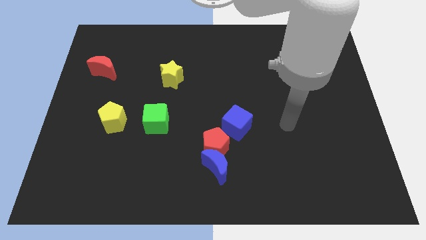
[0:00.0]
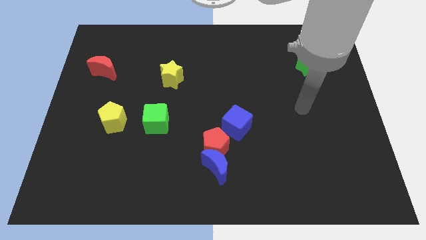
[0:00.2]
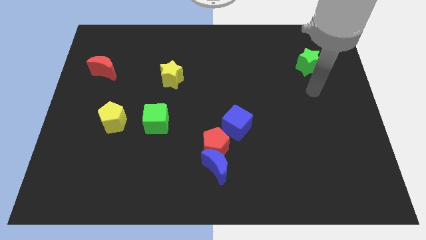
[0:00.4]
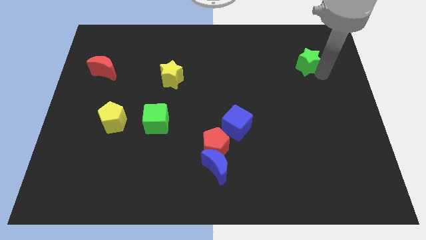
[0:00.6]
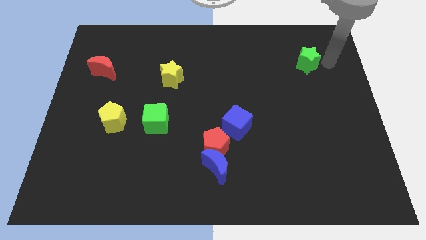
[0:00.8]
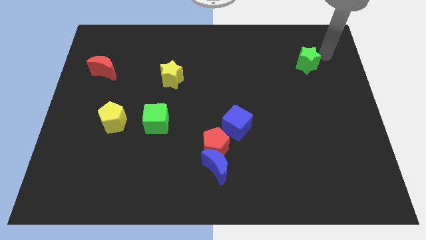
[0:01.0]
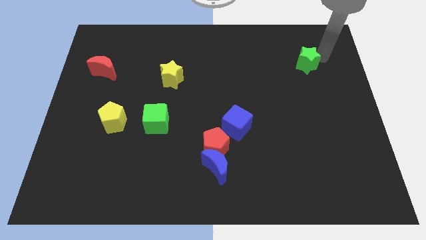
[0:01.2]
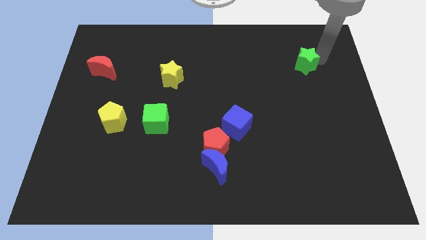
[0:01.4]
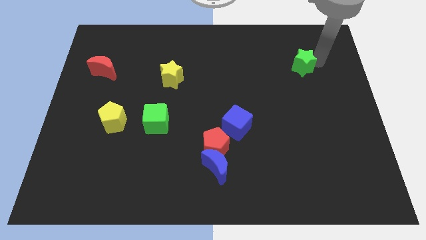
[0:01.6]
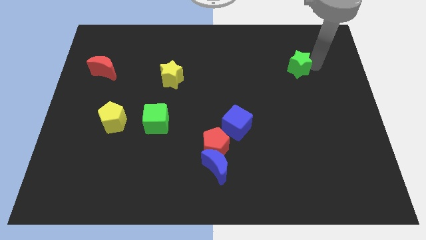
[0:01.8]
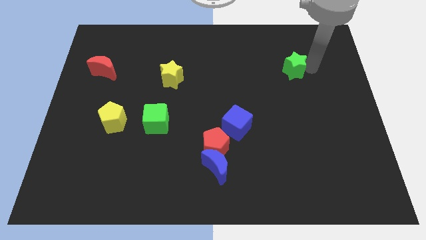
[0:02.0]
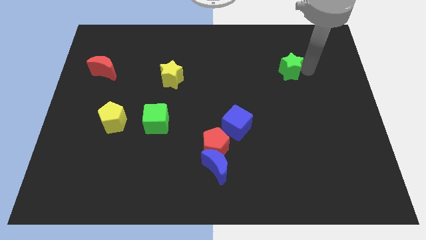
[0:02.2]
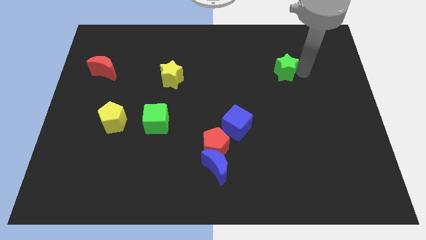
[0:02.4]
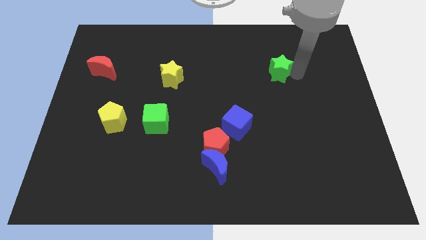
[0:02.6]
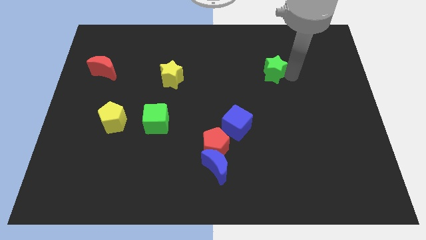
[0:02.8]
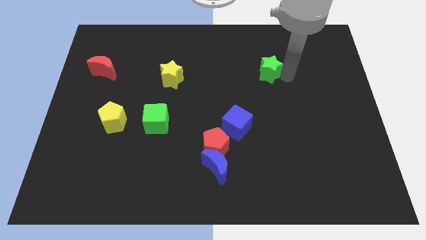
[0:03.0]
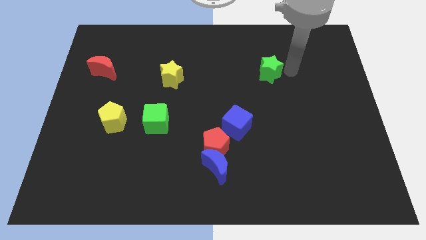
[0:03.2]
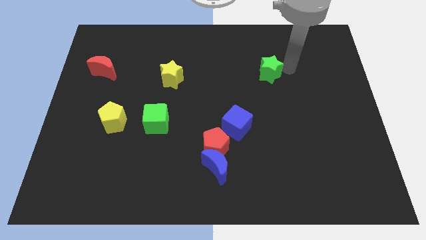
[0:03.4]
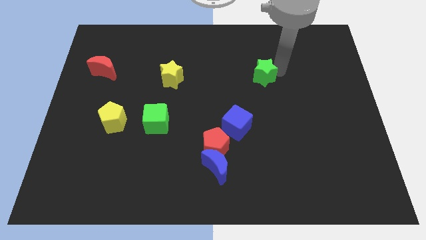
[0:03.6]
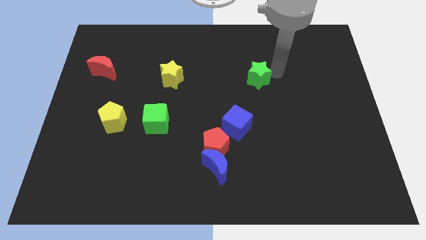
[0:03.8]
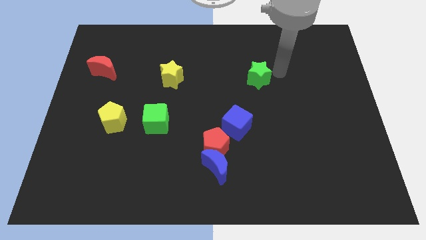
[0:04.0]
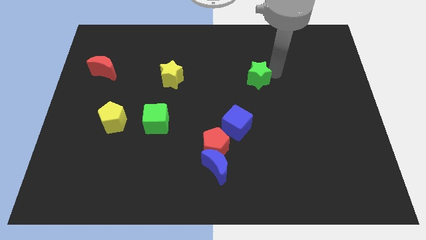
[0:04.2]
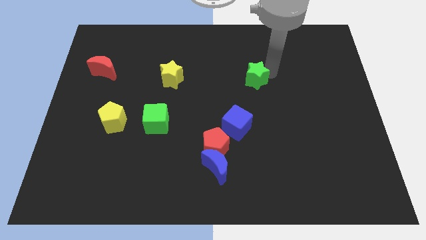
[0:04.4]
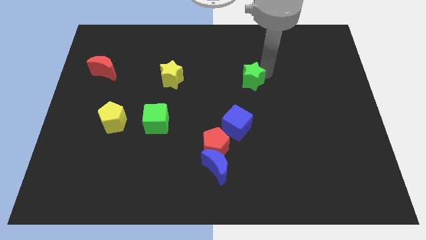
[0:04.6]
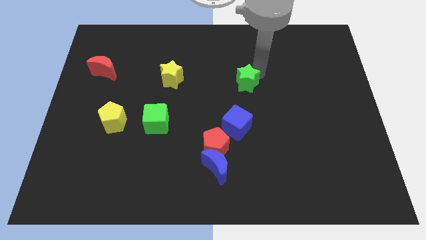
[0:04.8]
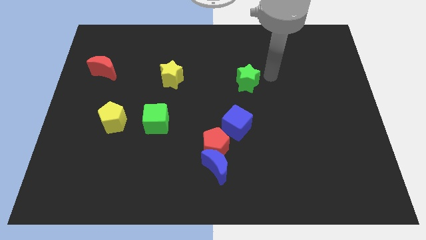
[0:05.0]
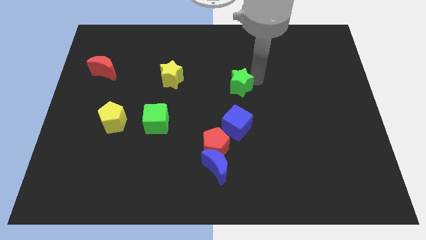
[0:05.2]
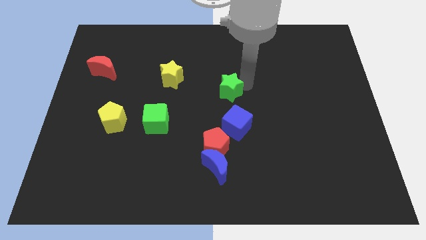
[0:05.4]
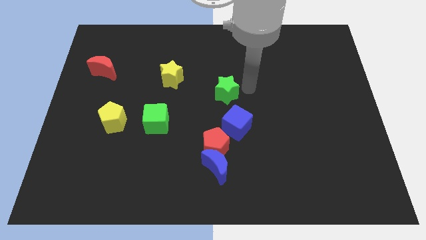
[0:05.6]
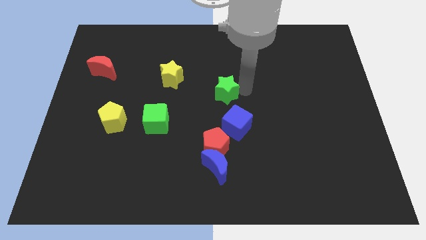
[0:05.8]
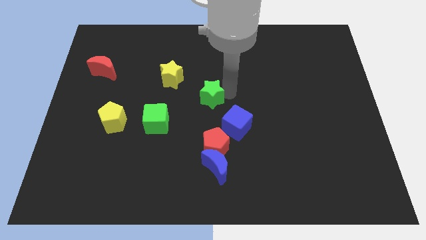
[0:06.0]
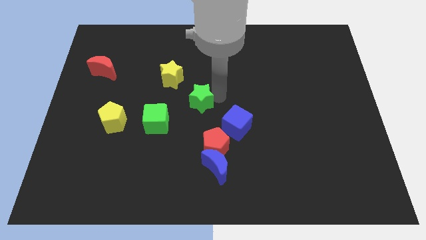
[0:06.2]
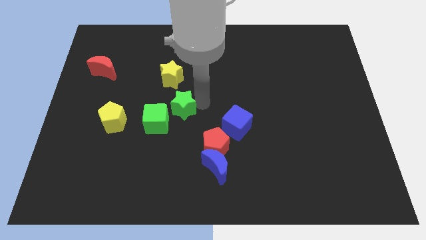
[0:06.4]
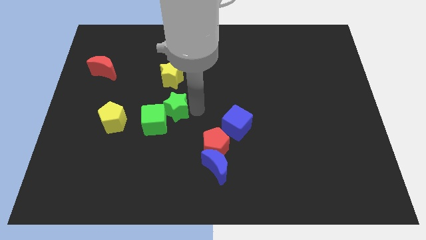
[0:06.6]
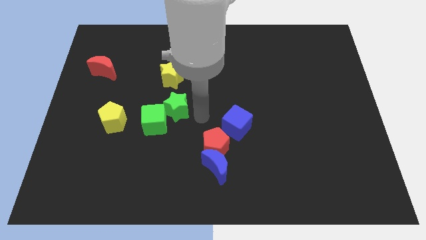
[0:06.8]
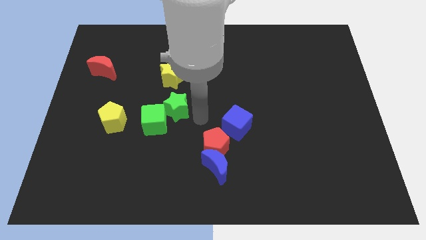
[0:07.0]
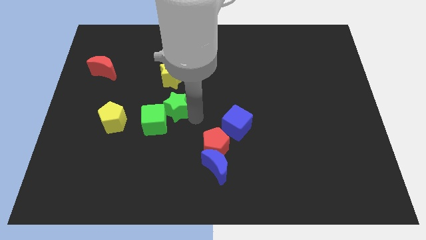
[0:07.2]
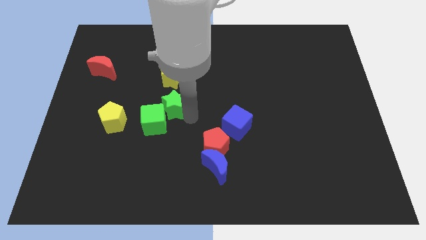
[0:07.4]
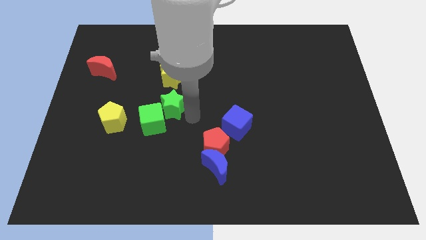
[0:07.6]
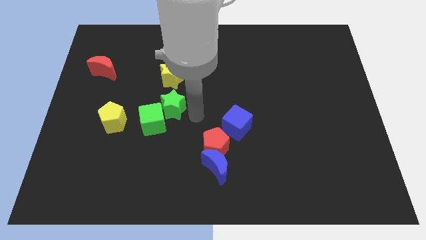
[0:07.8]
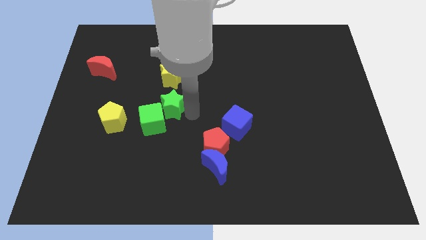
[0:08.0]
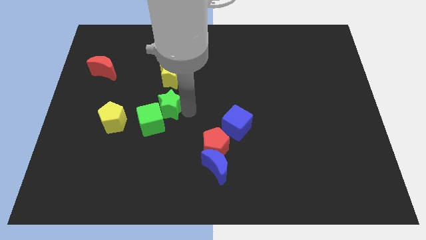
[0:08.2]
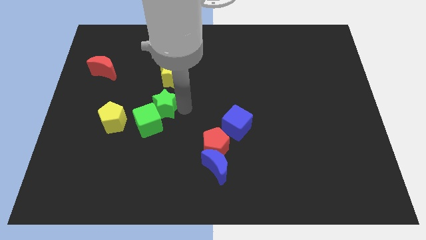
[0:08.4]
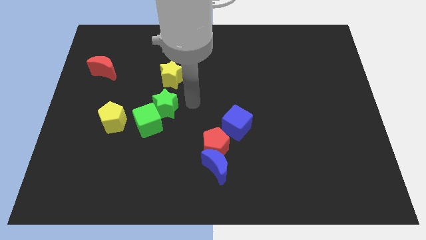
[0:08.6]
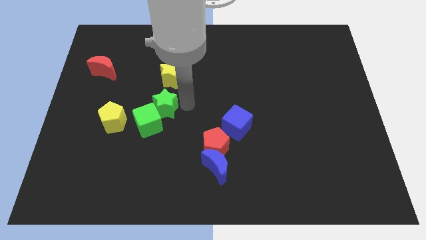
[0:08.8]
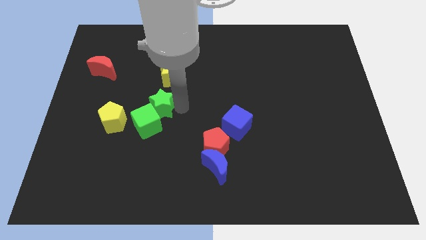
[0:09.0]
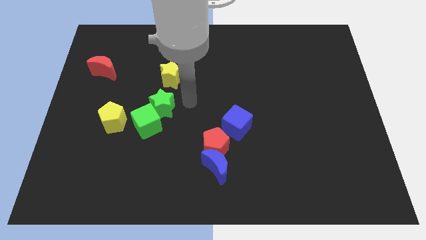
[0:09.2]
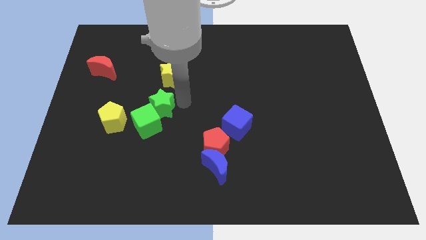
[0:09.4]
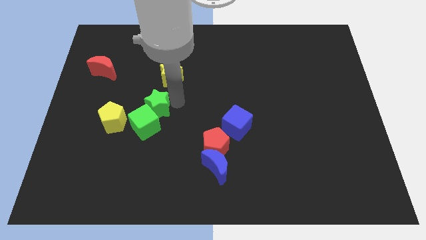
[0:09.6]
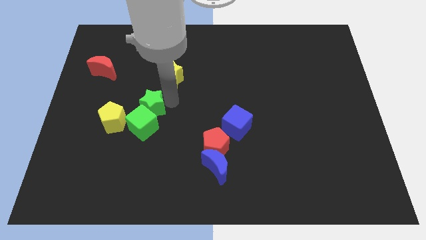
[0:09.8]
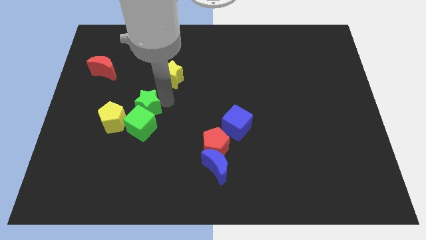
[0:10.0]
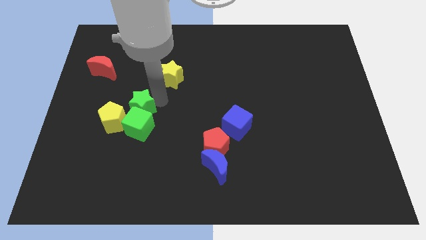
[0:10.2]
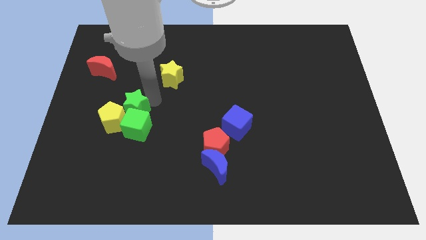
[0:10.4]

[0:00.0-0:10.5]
move the green star towards the yellow pentagon

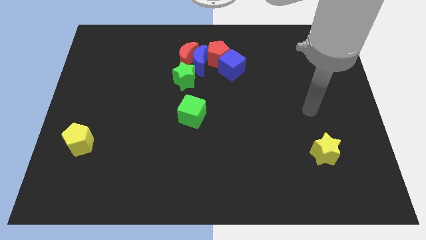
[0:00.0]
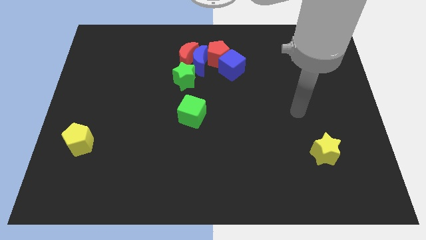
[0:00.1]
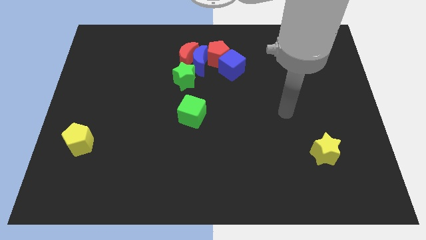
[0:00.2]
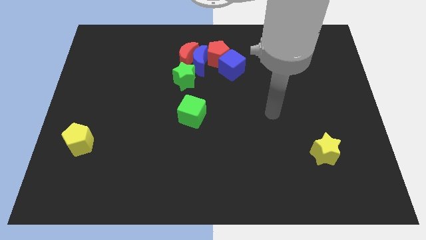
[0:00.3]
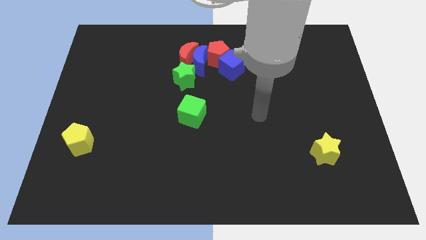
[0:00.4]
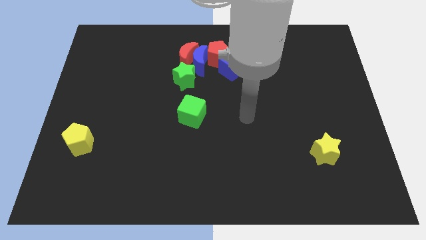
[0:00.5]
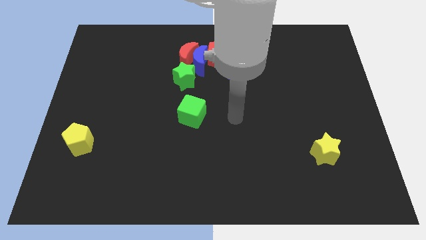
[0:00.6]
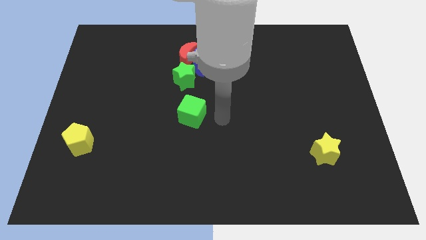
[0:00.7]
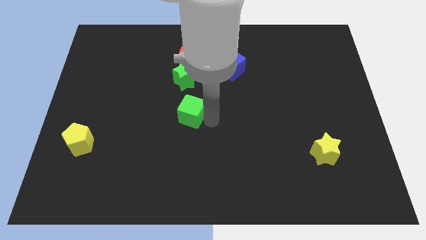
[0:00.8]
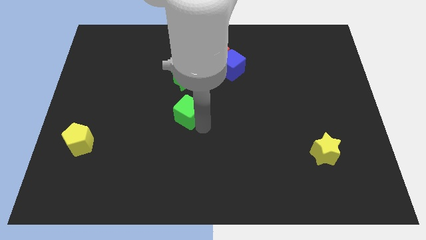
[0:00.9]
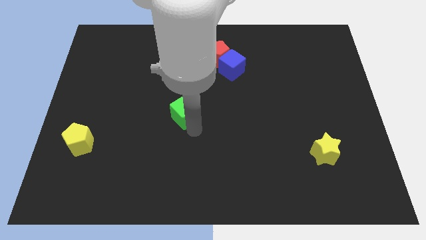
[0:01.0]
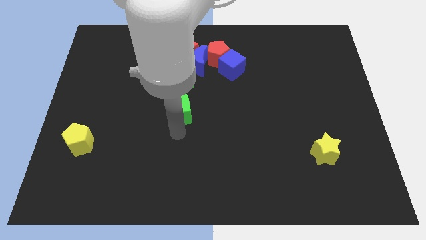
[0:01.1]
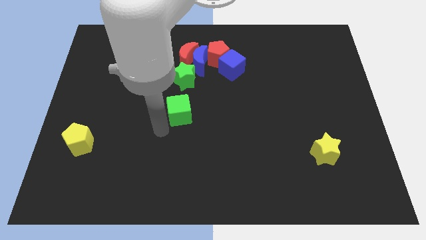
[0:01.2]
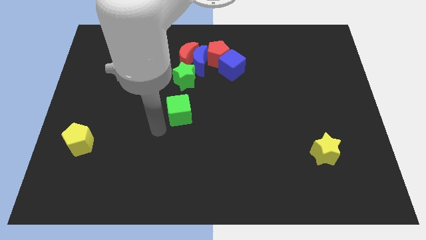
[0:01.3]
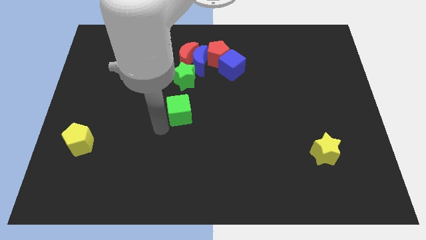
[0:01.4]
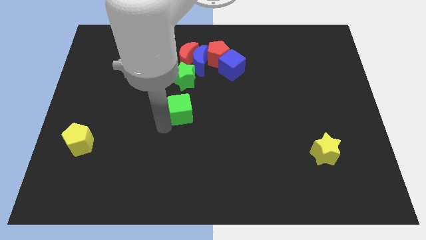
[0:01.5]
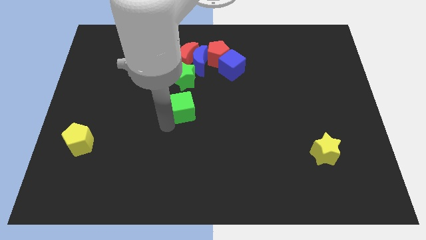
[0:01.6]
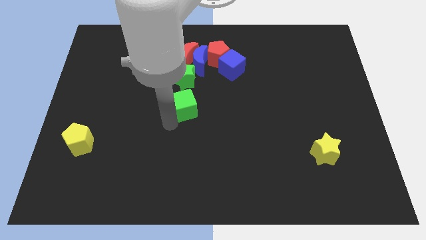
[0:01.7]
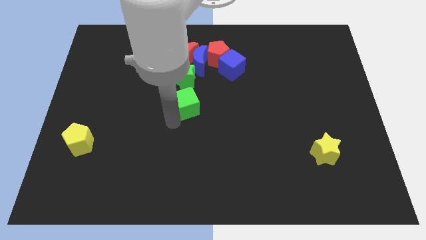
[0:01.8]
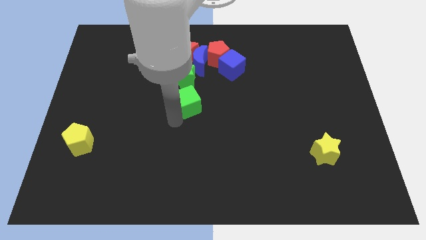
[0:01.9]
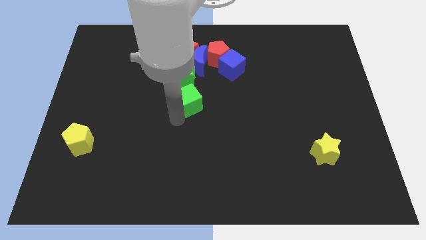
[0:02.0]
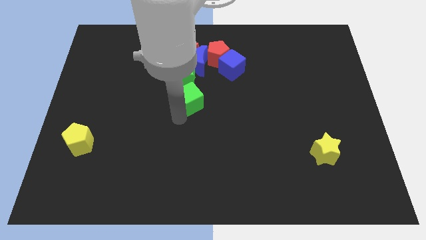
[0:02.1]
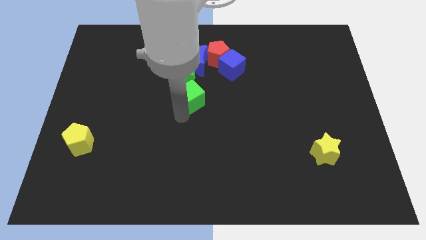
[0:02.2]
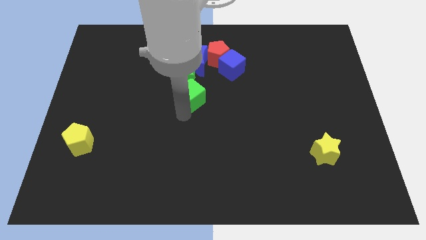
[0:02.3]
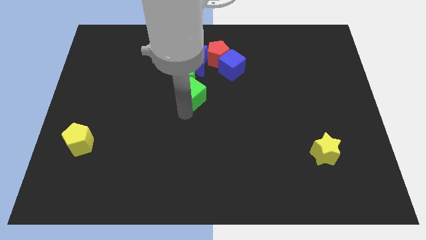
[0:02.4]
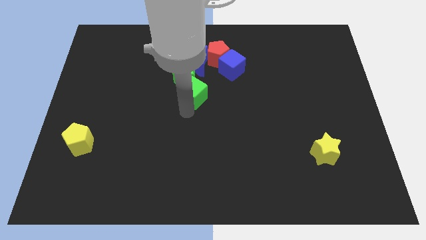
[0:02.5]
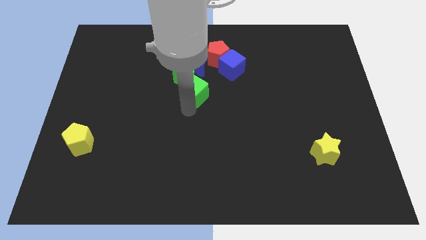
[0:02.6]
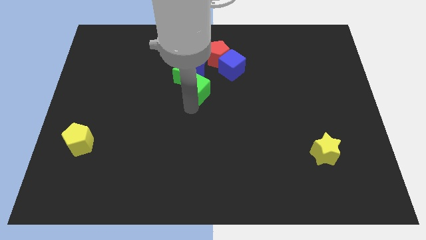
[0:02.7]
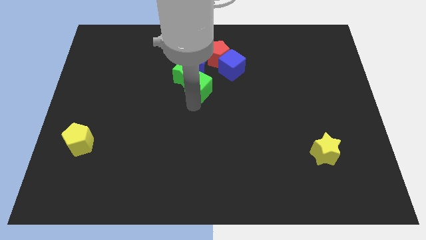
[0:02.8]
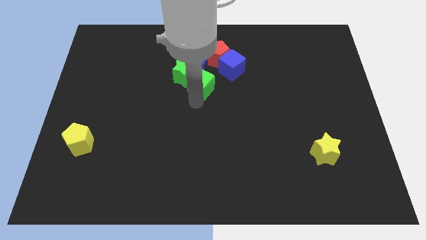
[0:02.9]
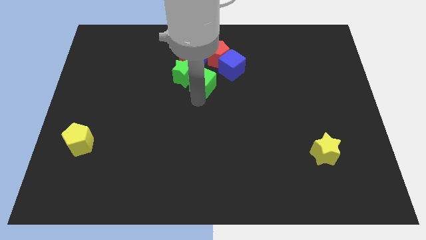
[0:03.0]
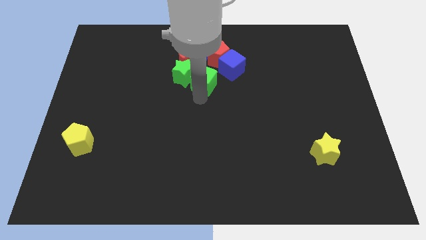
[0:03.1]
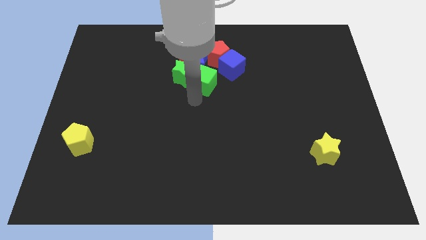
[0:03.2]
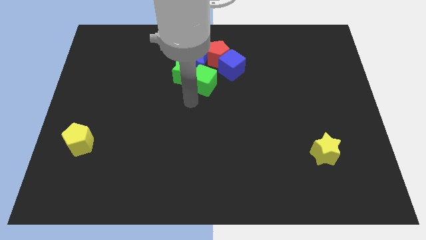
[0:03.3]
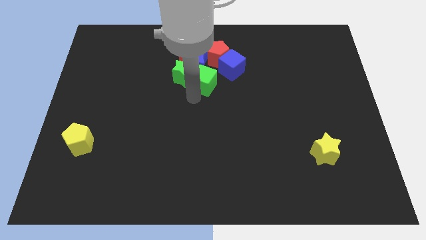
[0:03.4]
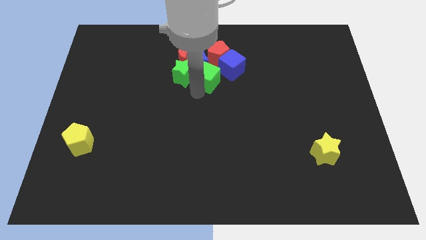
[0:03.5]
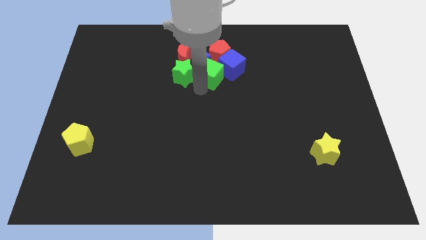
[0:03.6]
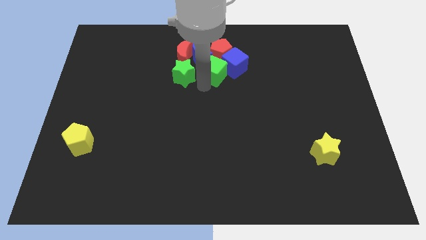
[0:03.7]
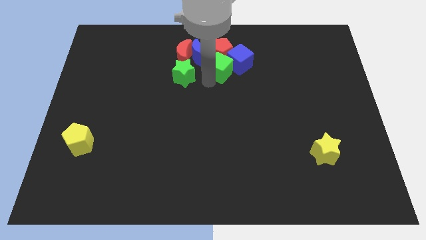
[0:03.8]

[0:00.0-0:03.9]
put the green cube next to the red pentagon
